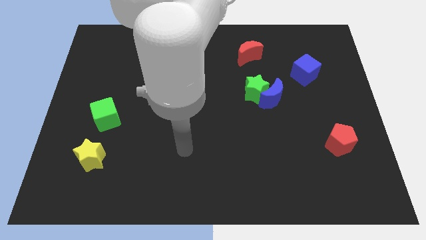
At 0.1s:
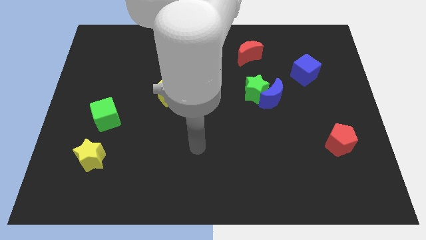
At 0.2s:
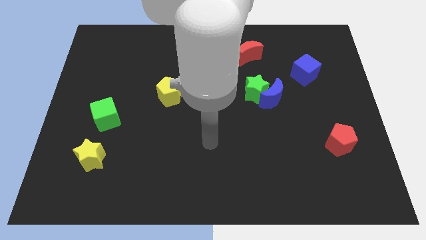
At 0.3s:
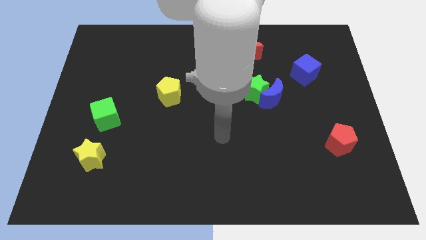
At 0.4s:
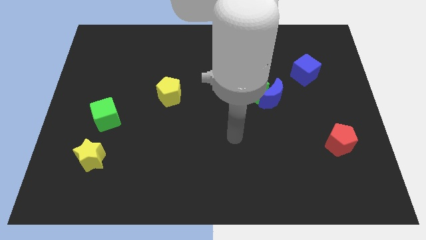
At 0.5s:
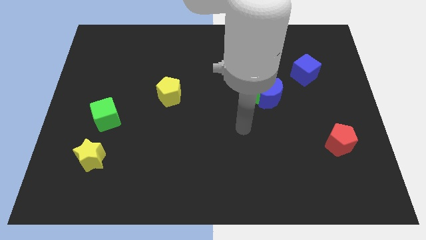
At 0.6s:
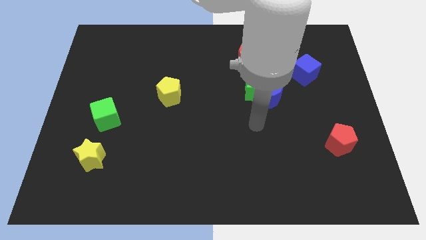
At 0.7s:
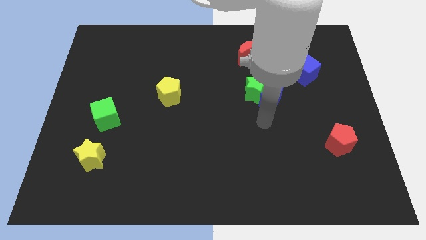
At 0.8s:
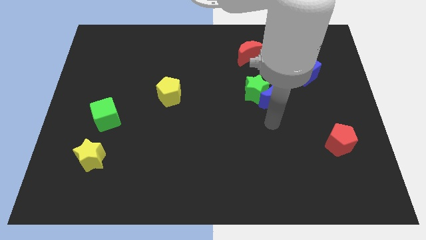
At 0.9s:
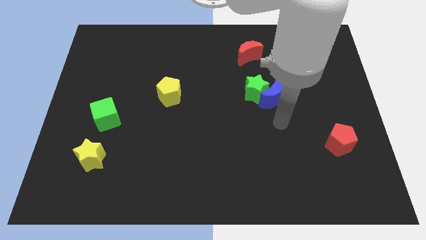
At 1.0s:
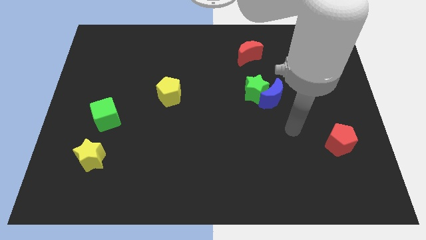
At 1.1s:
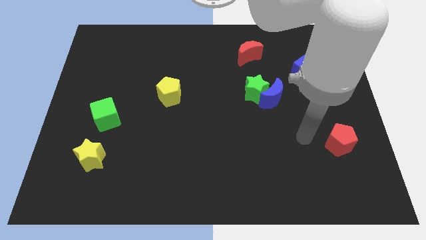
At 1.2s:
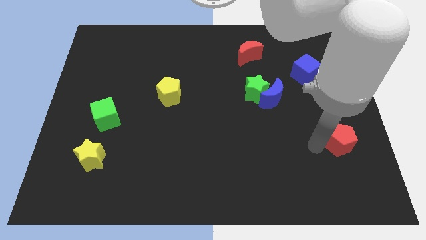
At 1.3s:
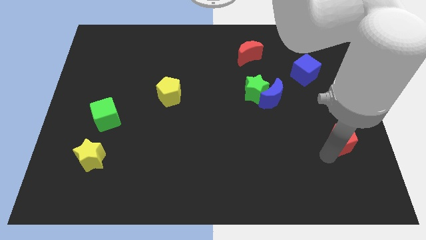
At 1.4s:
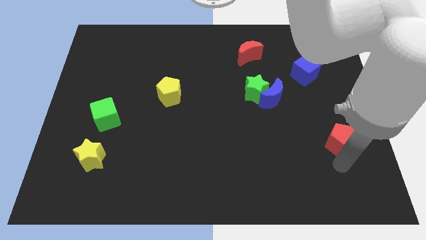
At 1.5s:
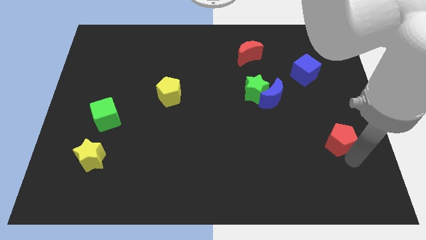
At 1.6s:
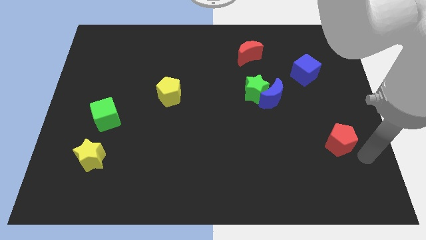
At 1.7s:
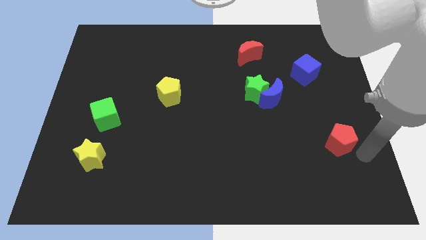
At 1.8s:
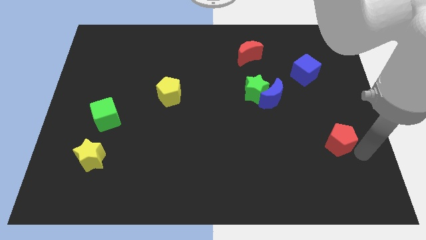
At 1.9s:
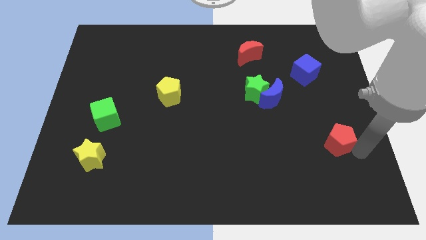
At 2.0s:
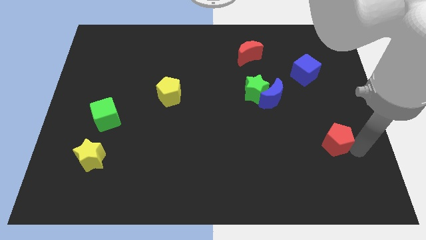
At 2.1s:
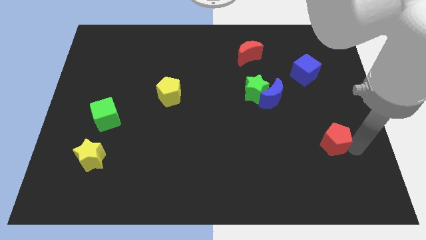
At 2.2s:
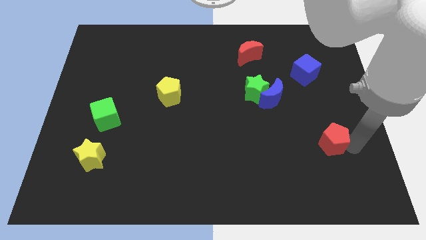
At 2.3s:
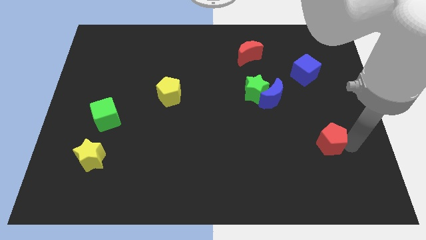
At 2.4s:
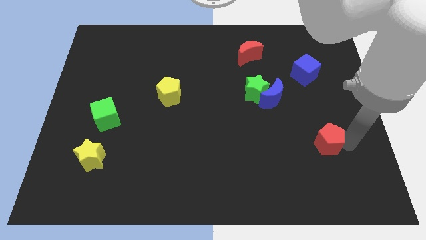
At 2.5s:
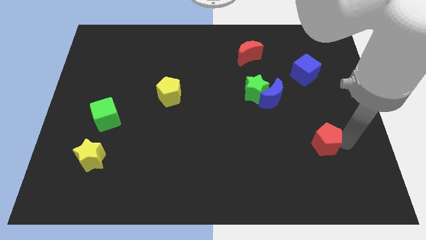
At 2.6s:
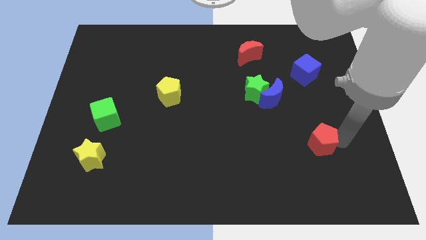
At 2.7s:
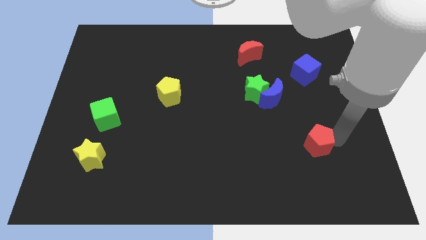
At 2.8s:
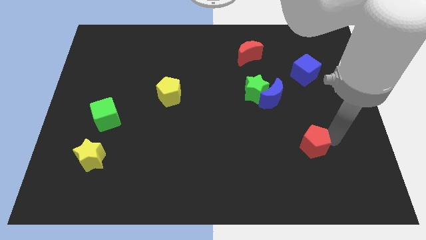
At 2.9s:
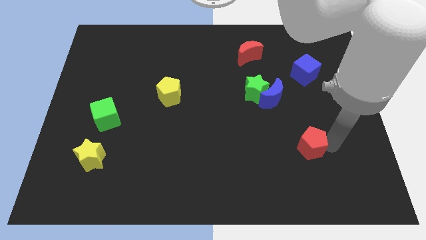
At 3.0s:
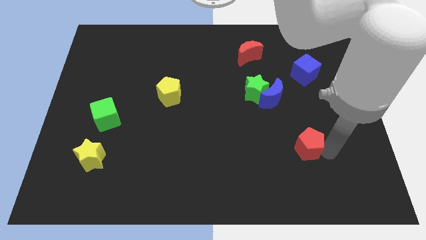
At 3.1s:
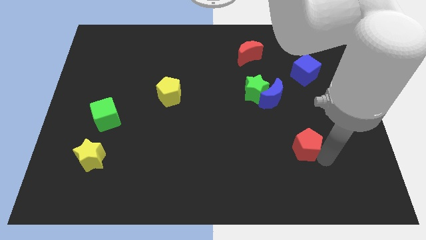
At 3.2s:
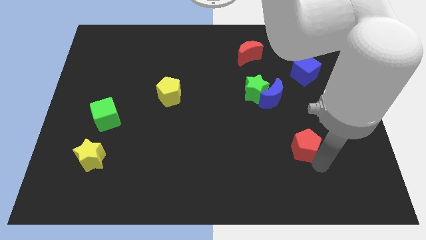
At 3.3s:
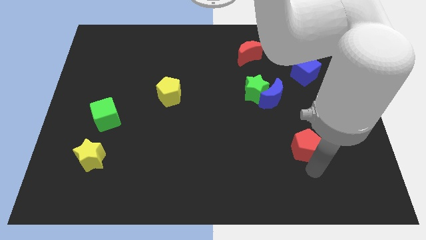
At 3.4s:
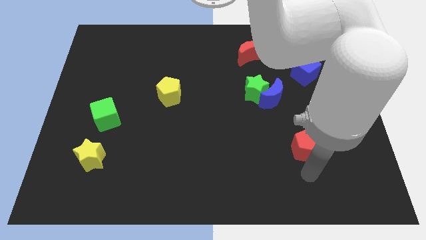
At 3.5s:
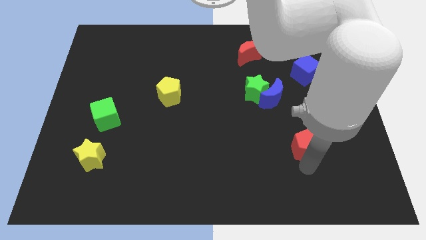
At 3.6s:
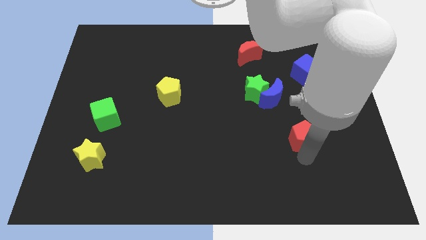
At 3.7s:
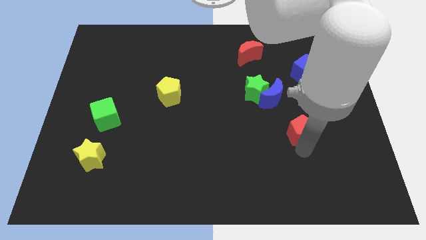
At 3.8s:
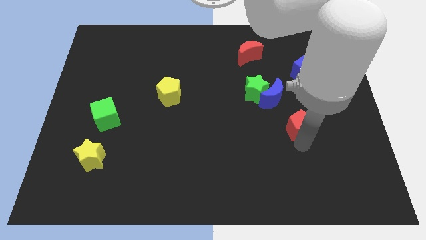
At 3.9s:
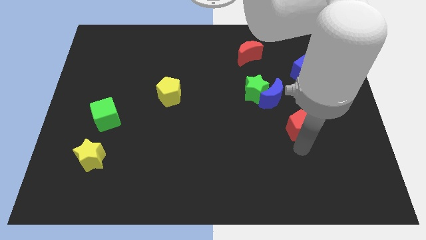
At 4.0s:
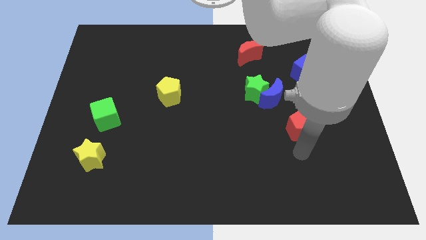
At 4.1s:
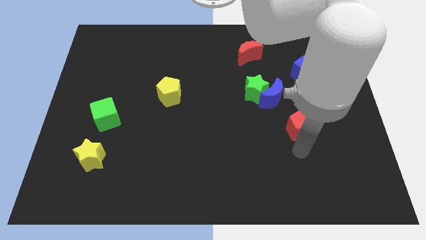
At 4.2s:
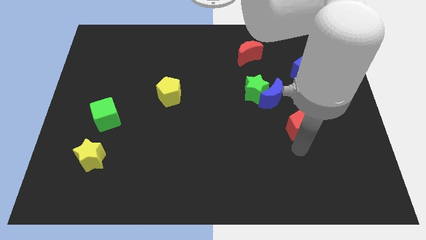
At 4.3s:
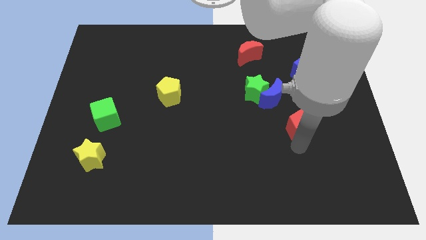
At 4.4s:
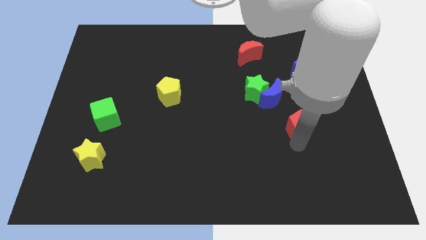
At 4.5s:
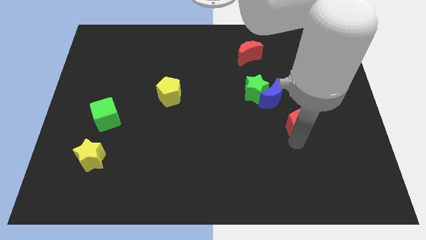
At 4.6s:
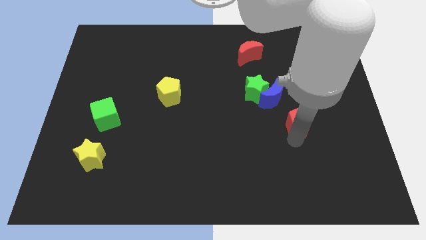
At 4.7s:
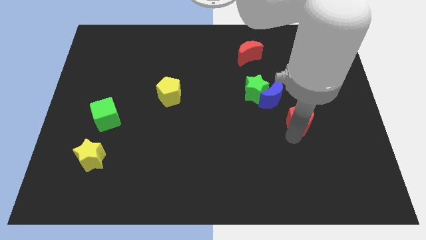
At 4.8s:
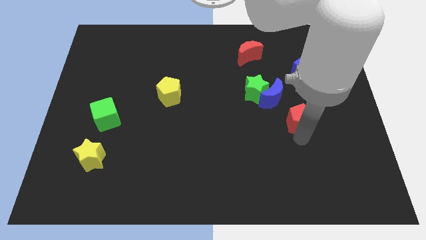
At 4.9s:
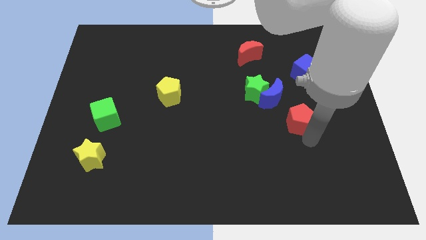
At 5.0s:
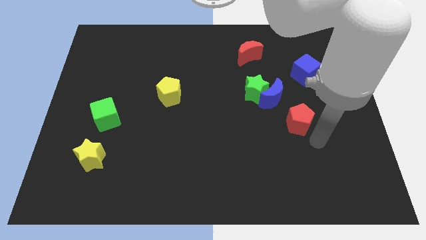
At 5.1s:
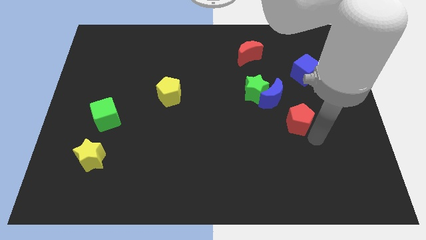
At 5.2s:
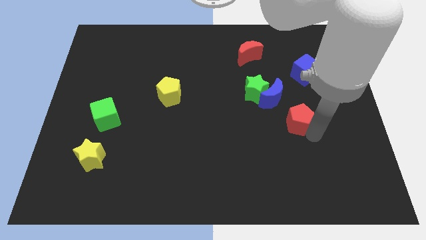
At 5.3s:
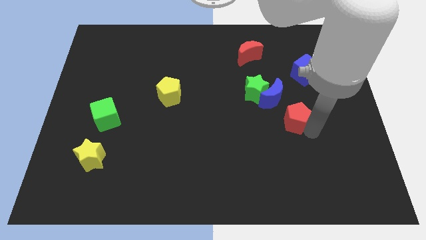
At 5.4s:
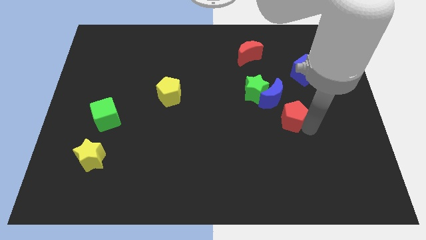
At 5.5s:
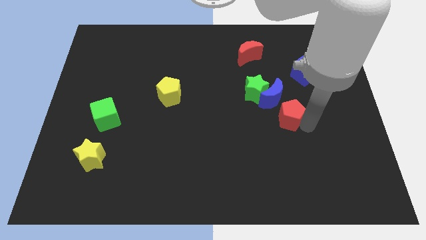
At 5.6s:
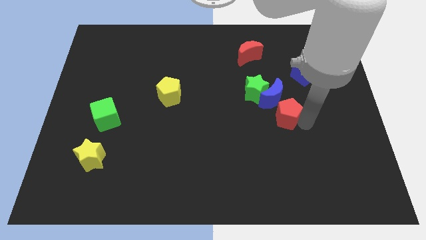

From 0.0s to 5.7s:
push the red pentagon to the blue moon

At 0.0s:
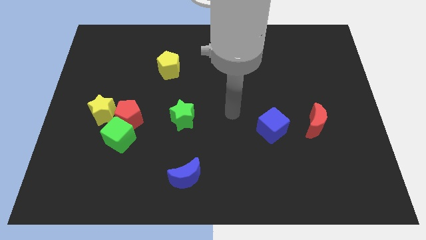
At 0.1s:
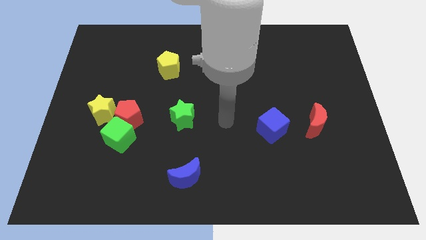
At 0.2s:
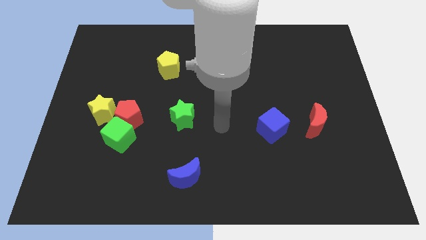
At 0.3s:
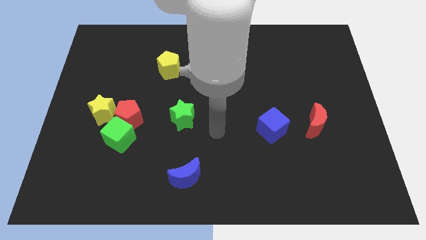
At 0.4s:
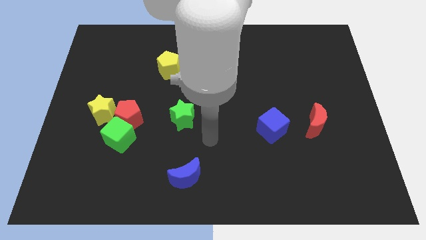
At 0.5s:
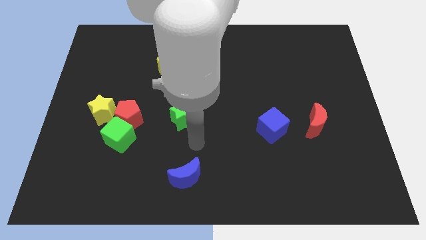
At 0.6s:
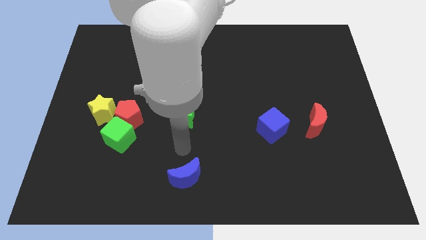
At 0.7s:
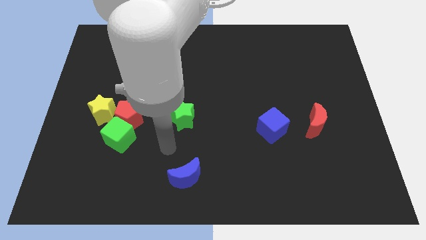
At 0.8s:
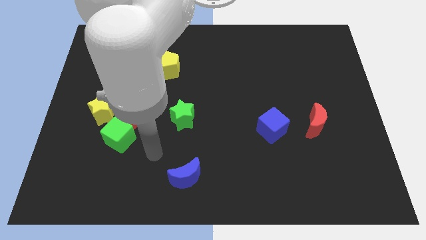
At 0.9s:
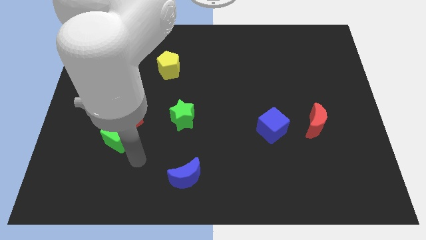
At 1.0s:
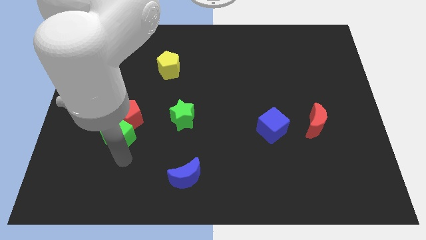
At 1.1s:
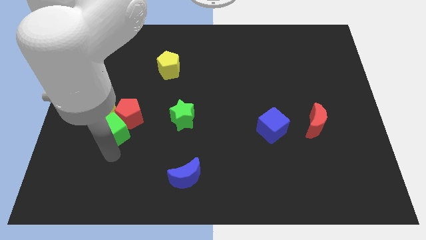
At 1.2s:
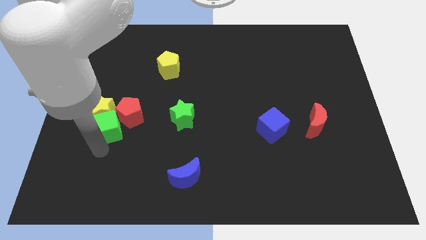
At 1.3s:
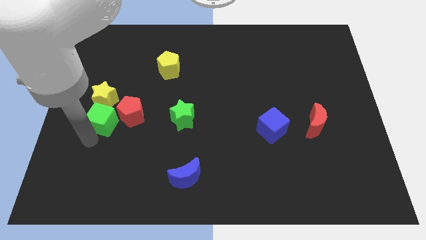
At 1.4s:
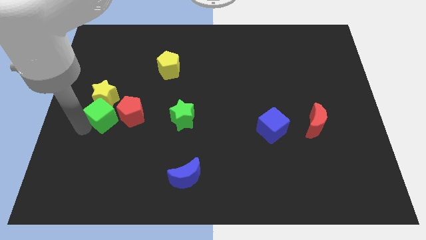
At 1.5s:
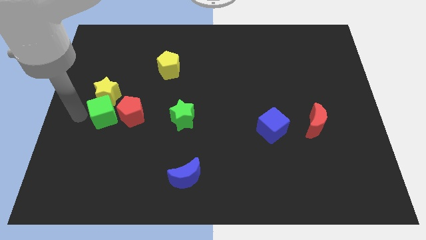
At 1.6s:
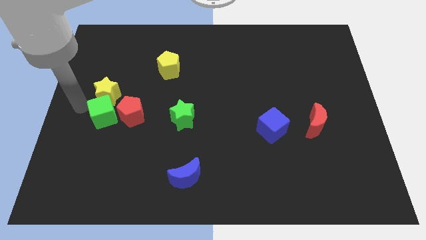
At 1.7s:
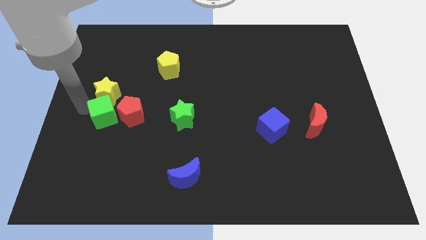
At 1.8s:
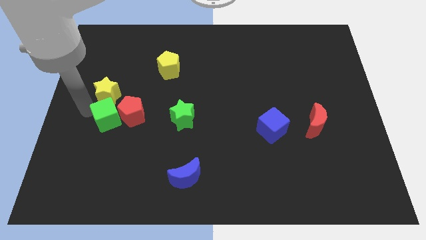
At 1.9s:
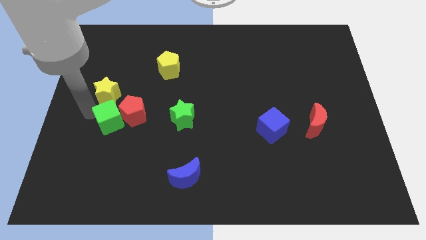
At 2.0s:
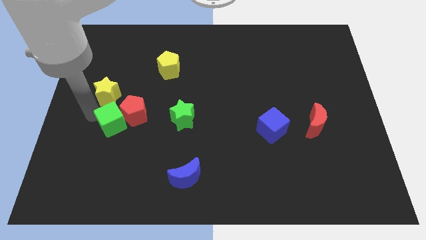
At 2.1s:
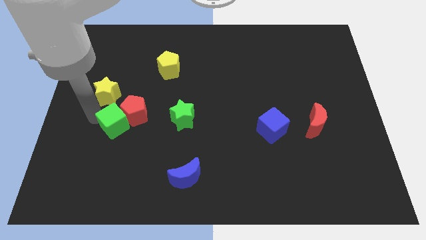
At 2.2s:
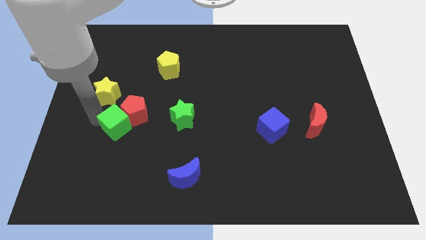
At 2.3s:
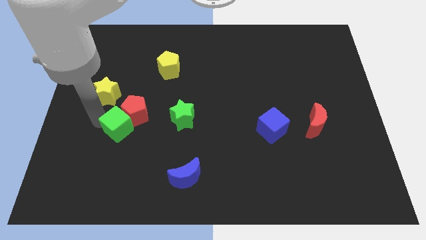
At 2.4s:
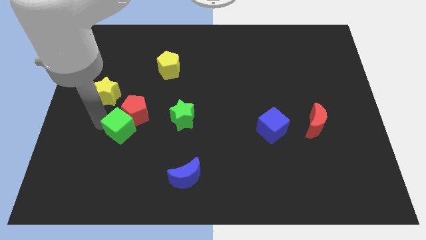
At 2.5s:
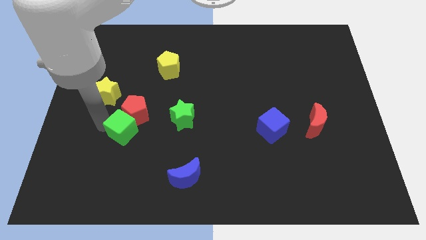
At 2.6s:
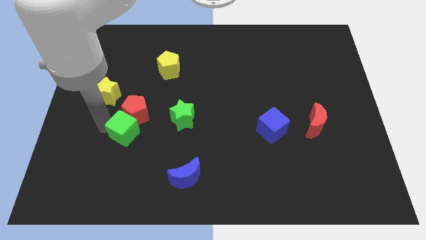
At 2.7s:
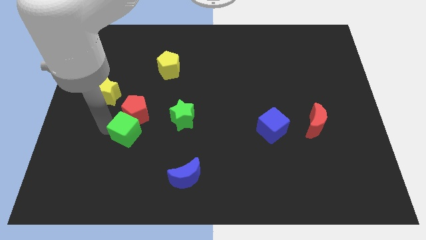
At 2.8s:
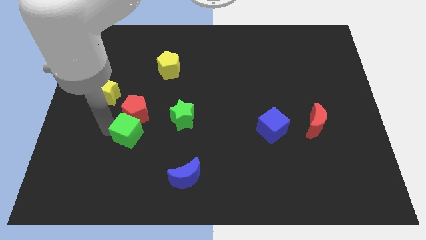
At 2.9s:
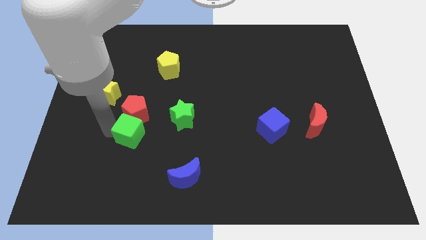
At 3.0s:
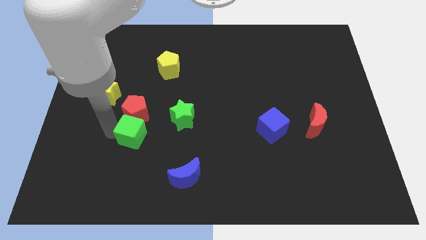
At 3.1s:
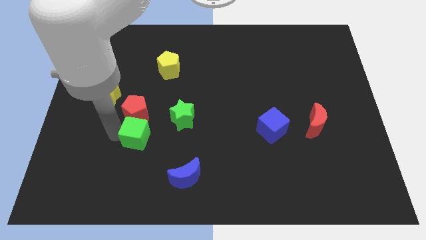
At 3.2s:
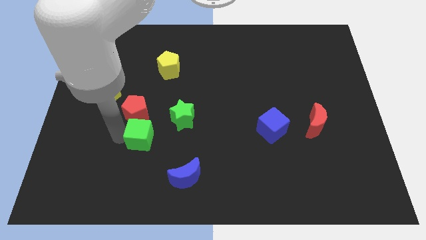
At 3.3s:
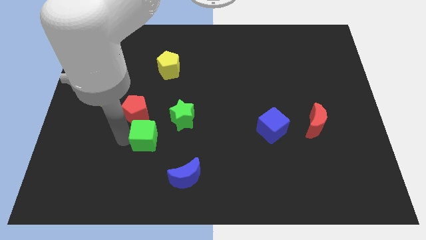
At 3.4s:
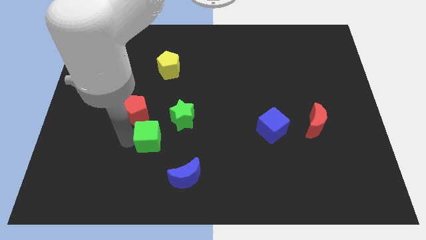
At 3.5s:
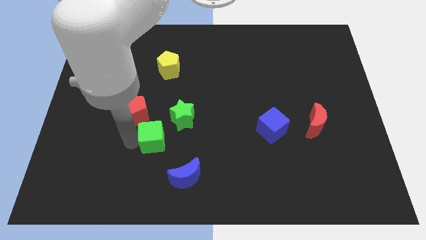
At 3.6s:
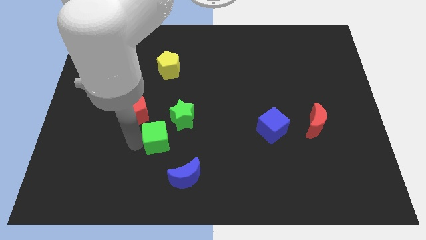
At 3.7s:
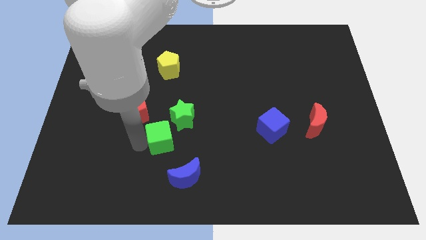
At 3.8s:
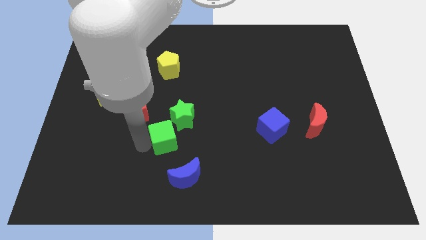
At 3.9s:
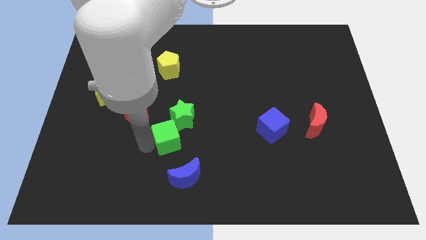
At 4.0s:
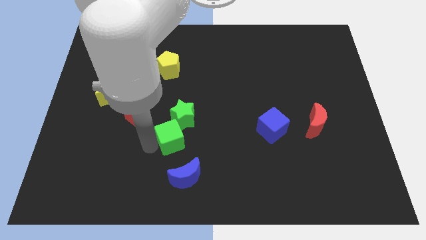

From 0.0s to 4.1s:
push the green cube to the green star
